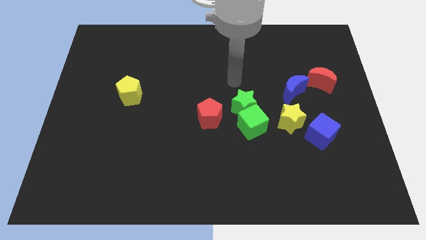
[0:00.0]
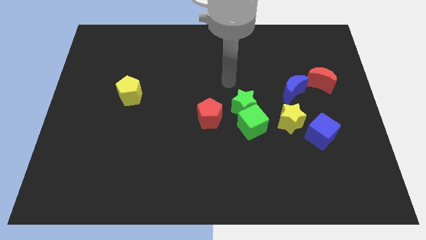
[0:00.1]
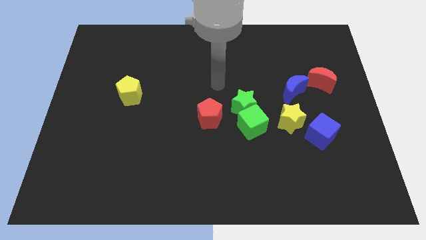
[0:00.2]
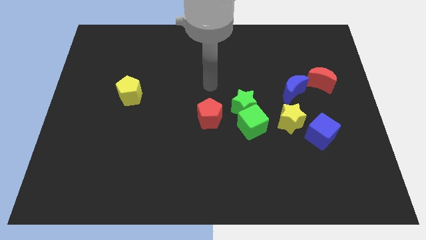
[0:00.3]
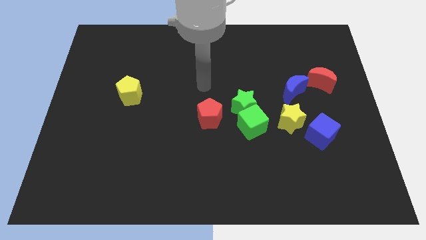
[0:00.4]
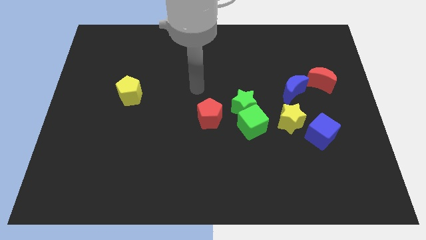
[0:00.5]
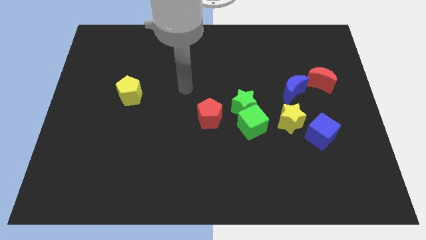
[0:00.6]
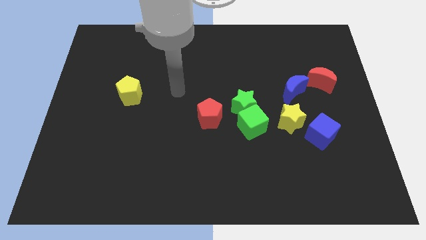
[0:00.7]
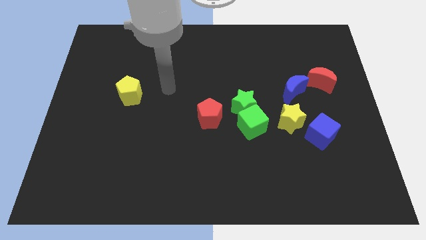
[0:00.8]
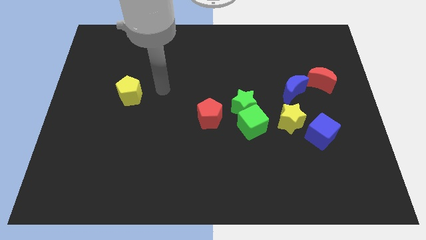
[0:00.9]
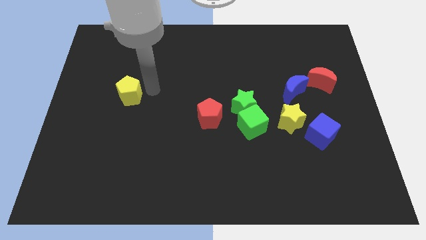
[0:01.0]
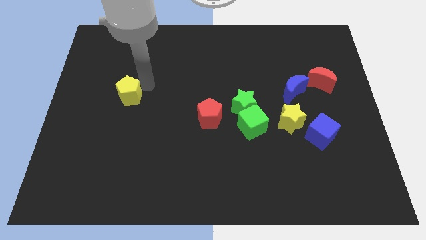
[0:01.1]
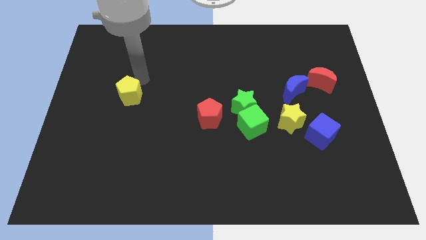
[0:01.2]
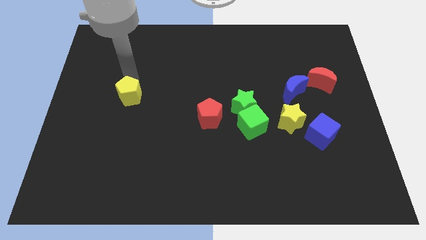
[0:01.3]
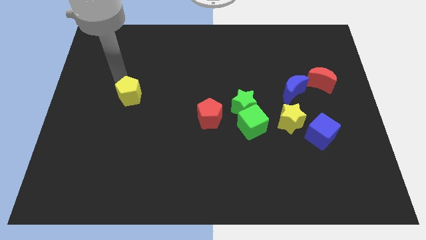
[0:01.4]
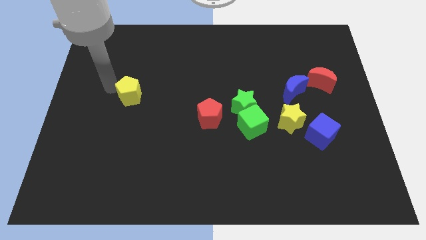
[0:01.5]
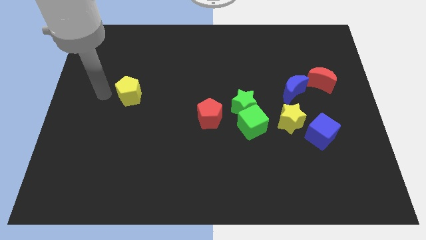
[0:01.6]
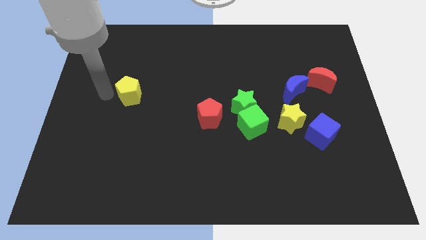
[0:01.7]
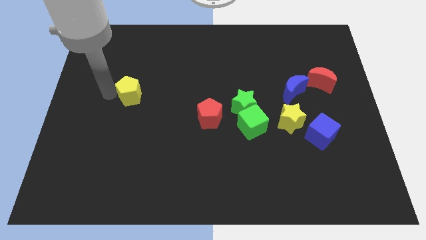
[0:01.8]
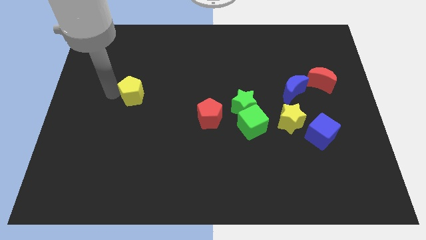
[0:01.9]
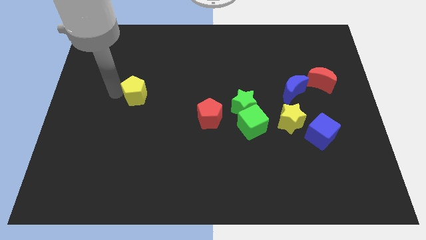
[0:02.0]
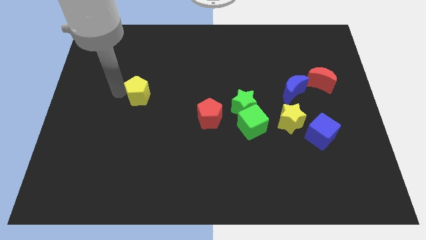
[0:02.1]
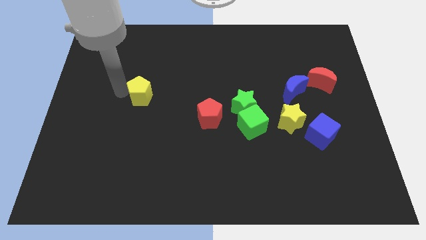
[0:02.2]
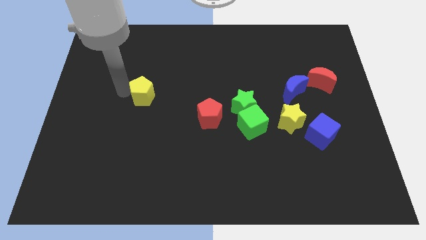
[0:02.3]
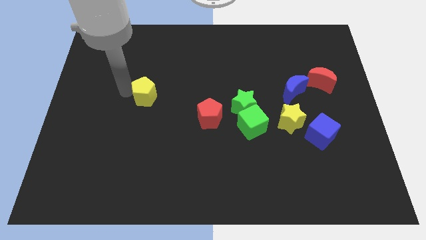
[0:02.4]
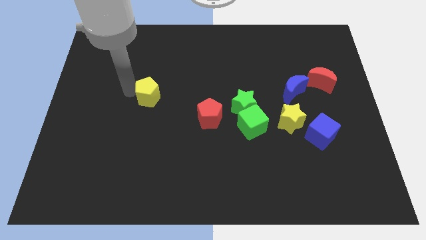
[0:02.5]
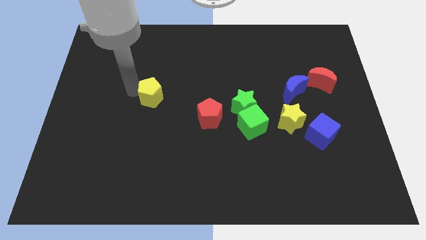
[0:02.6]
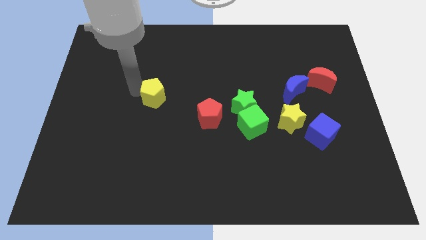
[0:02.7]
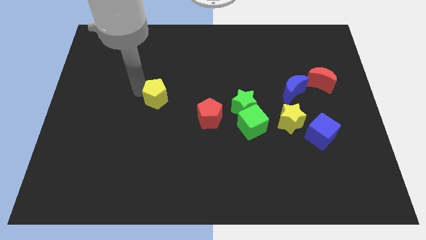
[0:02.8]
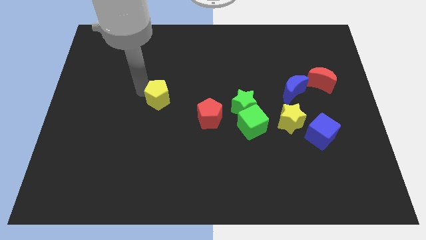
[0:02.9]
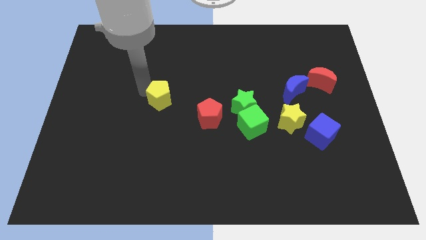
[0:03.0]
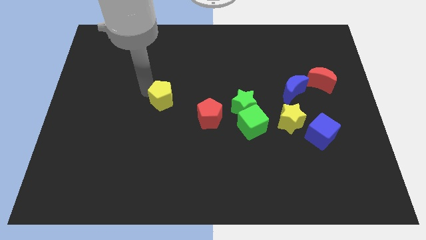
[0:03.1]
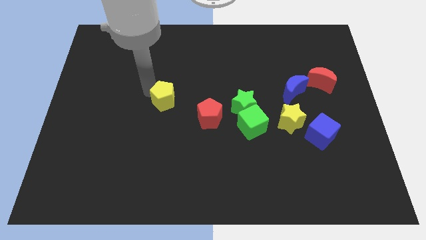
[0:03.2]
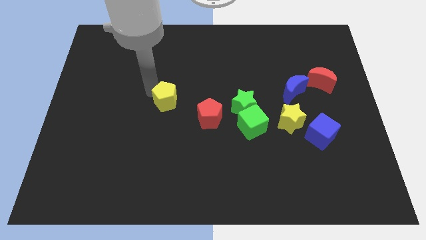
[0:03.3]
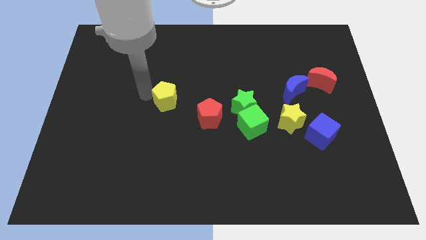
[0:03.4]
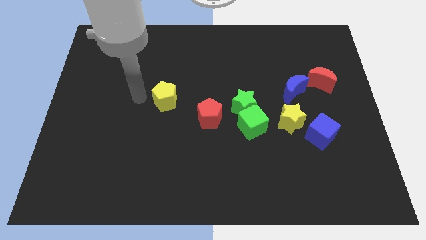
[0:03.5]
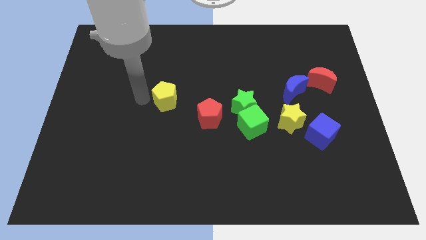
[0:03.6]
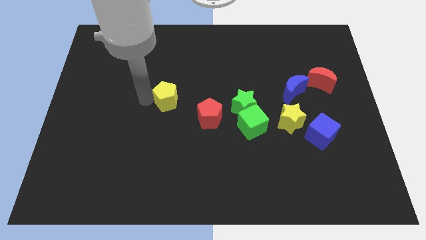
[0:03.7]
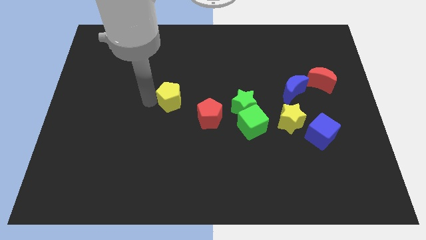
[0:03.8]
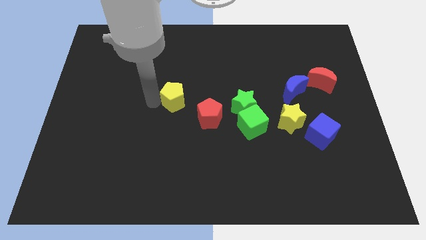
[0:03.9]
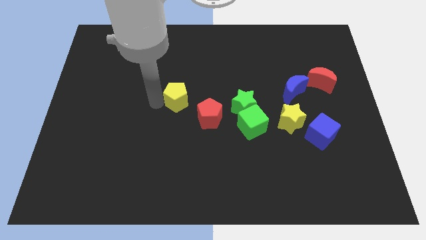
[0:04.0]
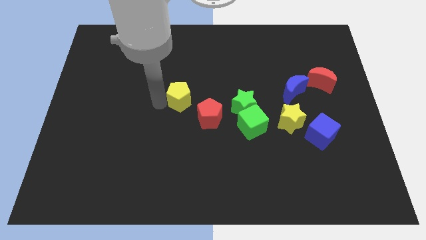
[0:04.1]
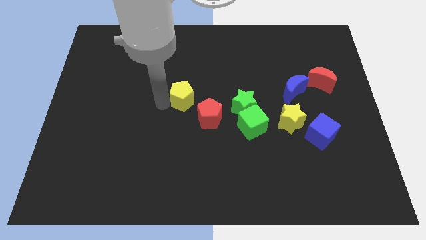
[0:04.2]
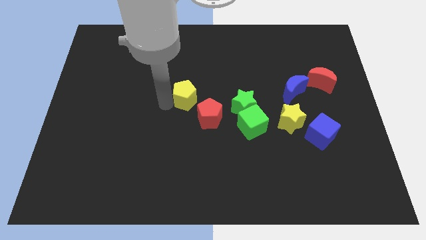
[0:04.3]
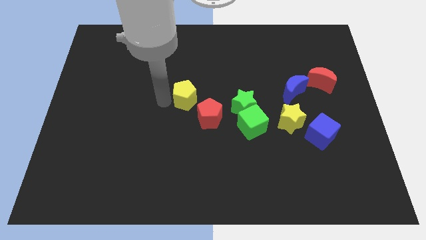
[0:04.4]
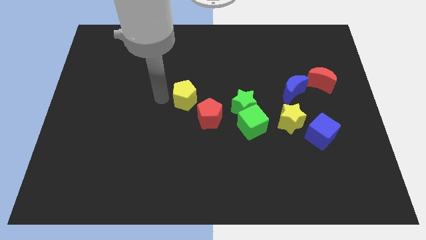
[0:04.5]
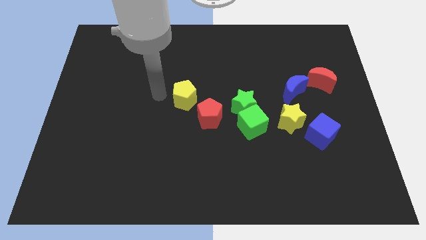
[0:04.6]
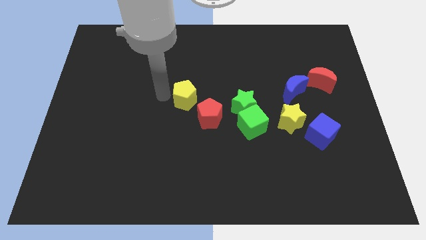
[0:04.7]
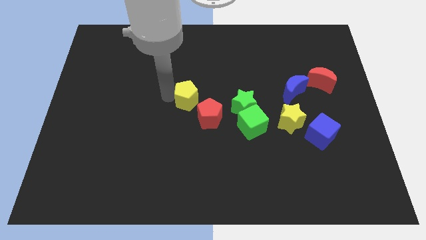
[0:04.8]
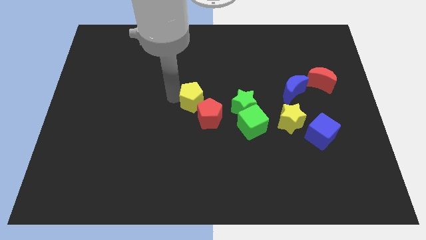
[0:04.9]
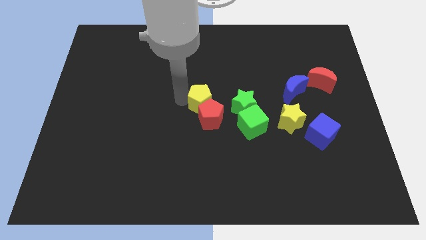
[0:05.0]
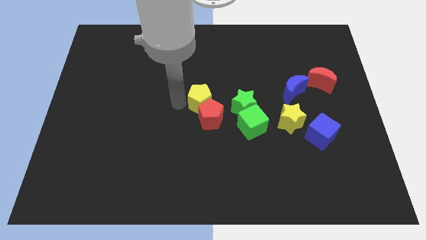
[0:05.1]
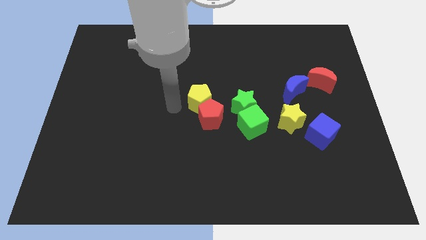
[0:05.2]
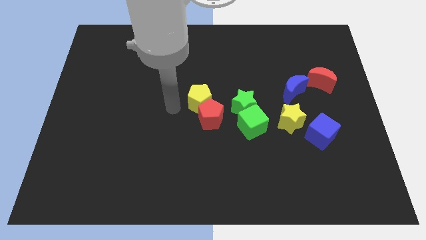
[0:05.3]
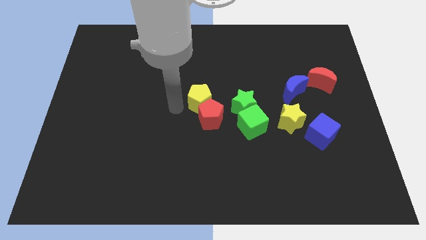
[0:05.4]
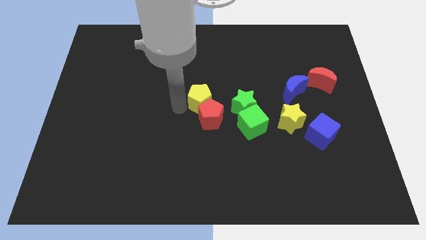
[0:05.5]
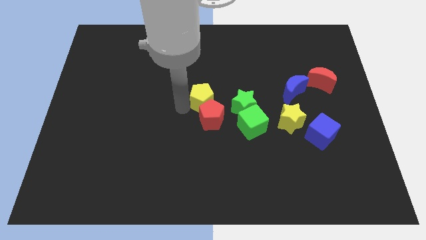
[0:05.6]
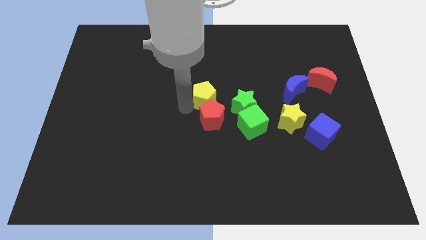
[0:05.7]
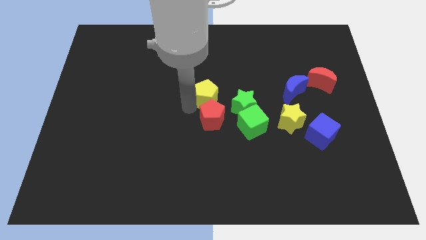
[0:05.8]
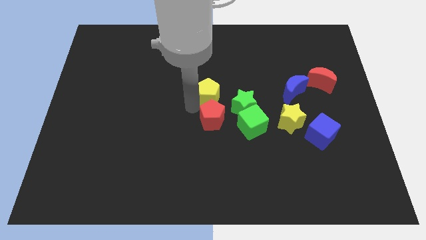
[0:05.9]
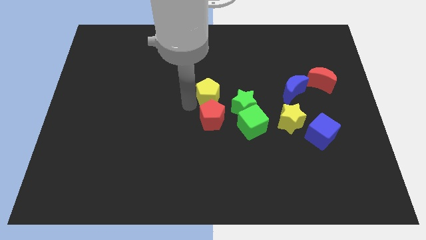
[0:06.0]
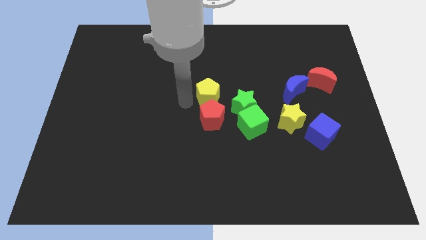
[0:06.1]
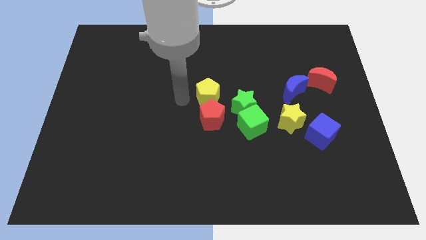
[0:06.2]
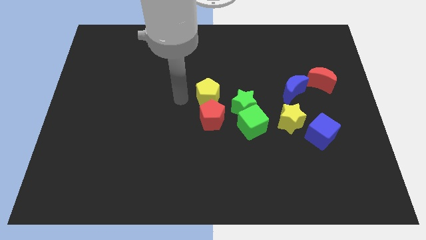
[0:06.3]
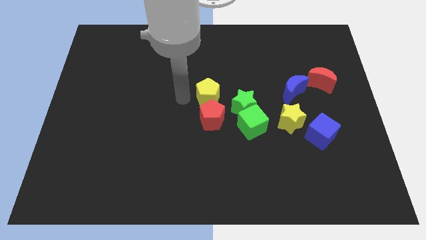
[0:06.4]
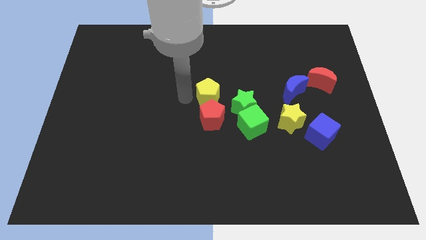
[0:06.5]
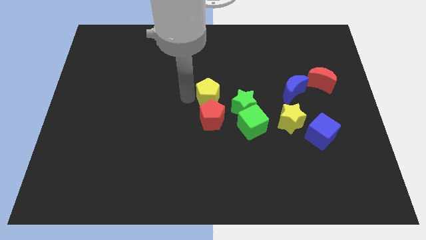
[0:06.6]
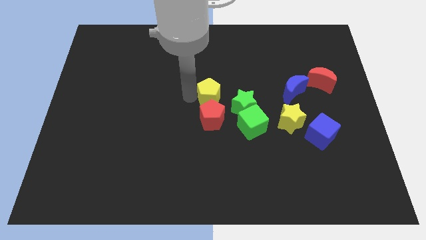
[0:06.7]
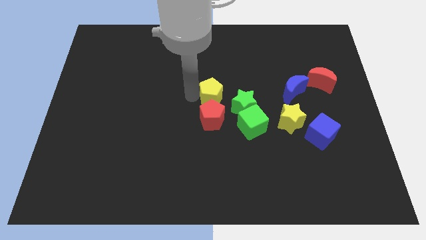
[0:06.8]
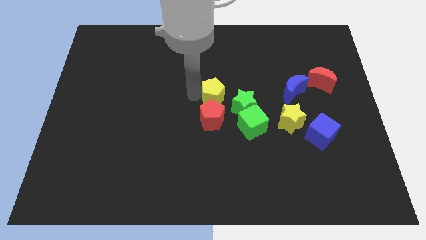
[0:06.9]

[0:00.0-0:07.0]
push the yellow pentagon to the right

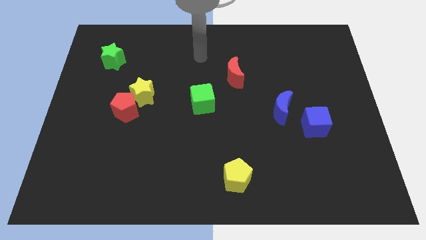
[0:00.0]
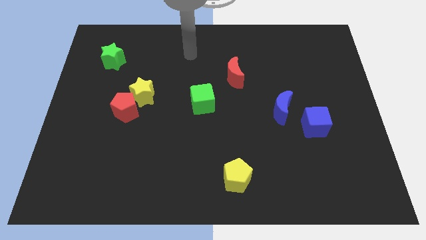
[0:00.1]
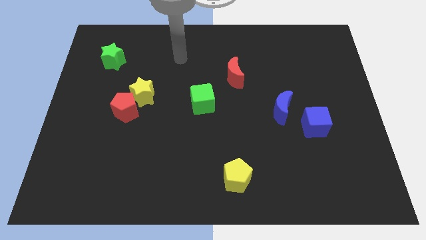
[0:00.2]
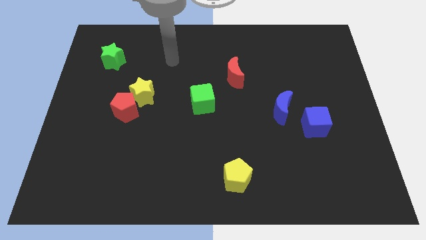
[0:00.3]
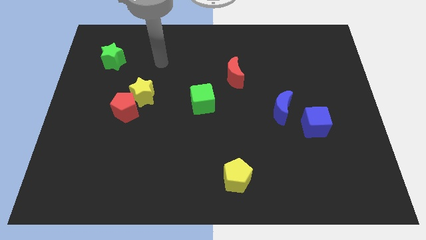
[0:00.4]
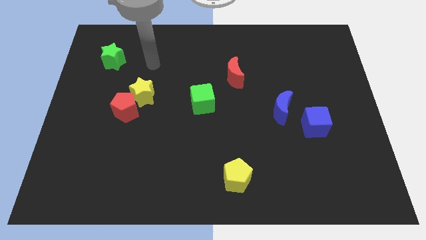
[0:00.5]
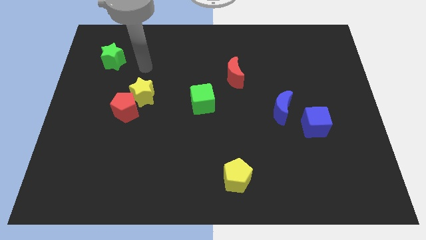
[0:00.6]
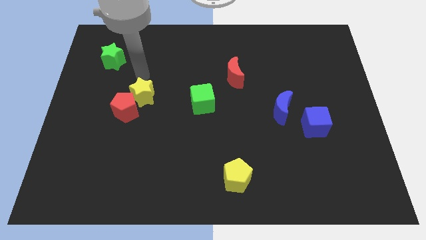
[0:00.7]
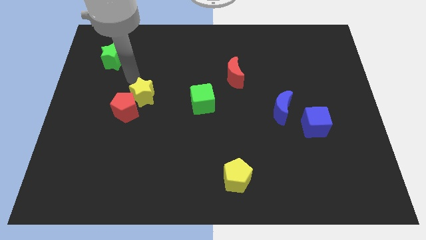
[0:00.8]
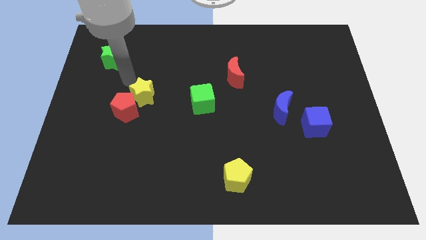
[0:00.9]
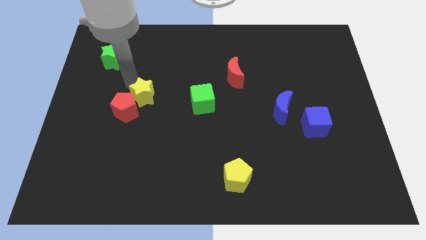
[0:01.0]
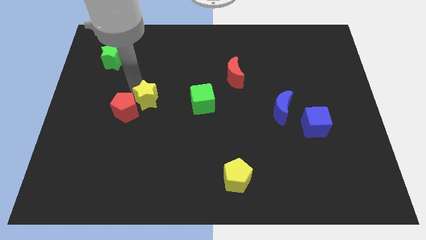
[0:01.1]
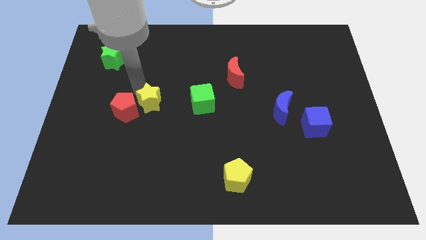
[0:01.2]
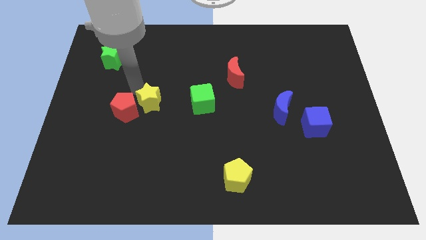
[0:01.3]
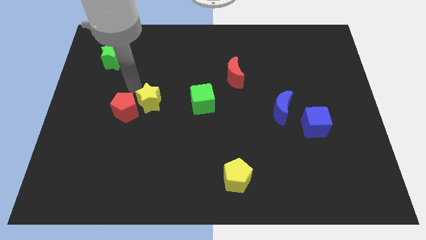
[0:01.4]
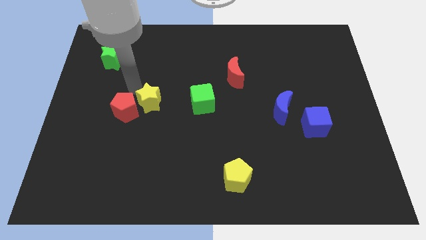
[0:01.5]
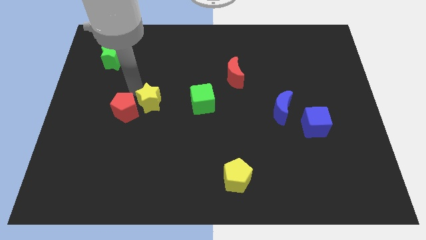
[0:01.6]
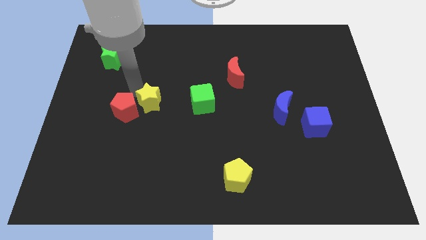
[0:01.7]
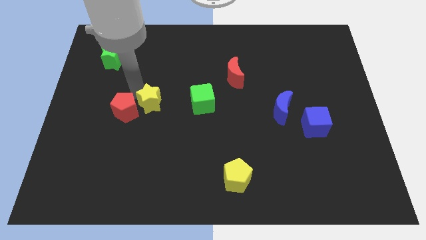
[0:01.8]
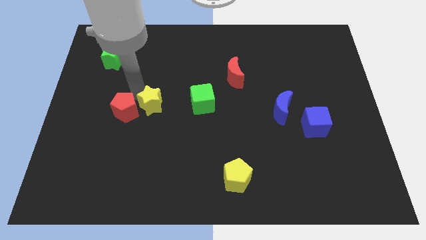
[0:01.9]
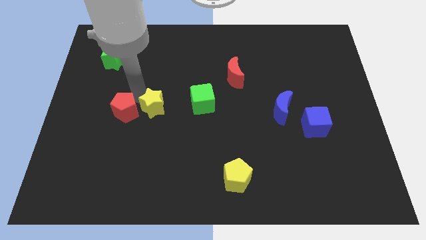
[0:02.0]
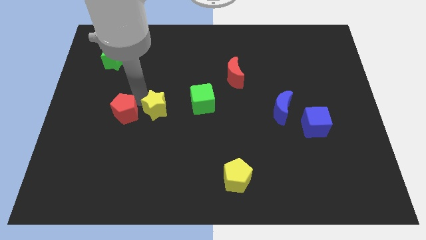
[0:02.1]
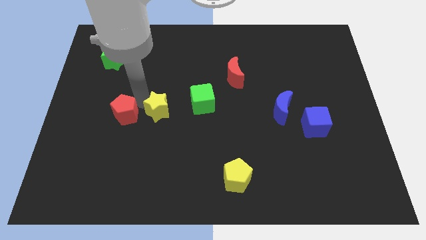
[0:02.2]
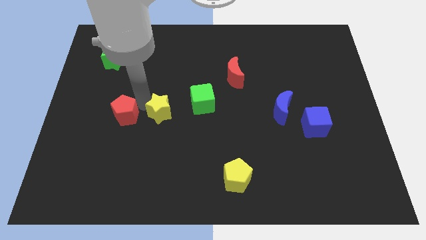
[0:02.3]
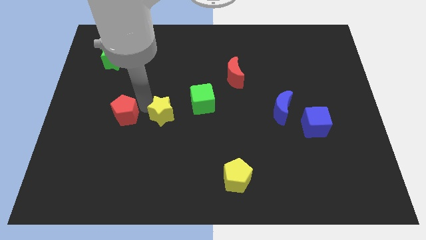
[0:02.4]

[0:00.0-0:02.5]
slightly move the yellow star downwards and then right
